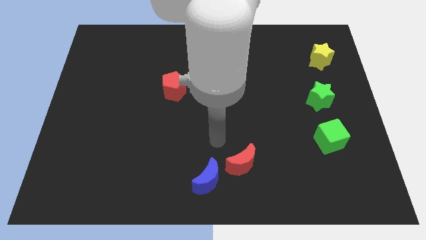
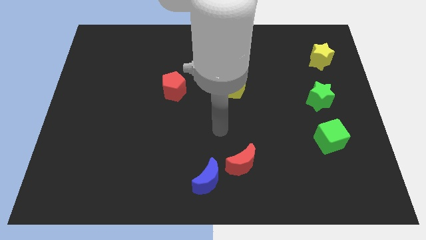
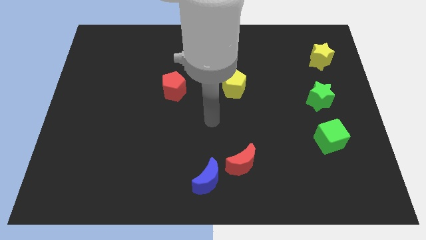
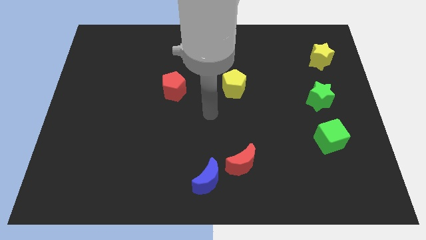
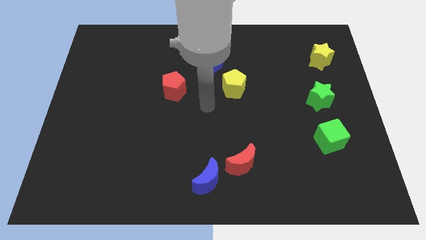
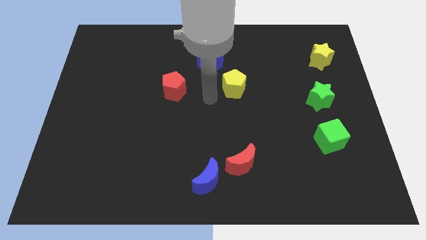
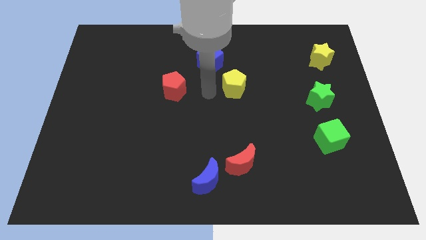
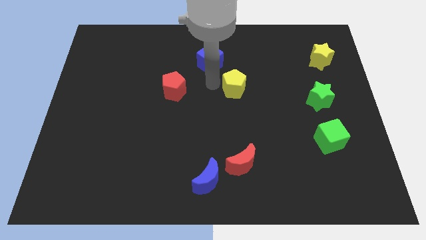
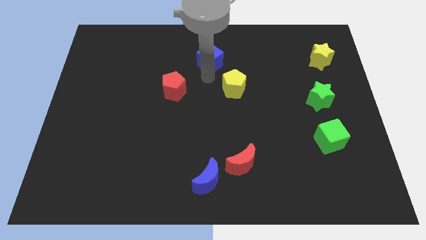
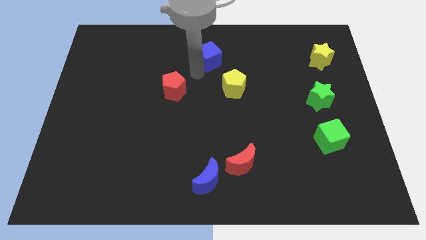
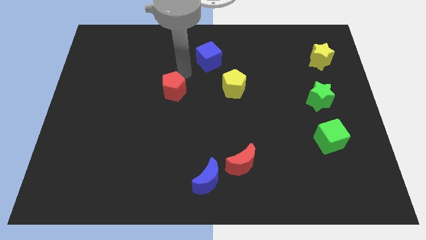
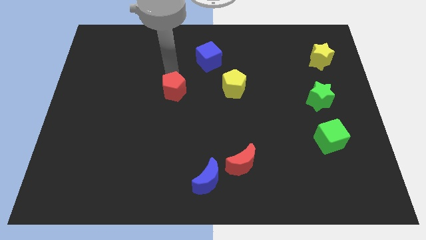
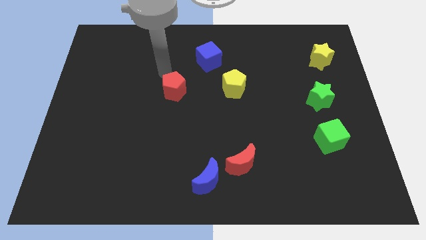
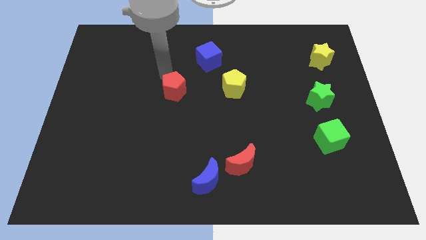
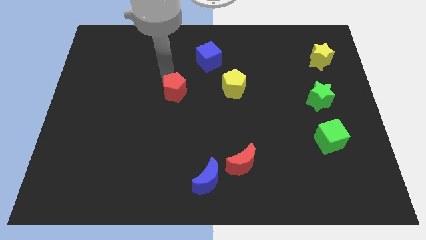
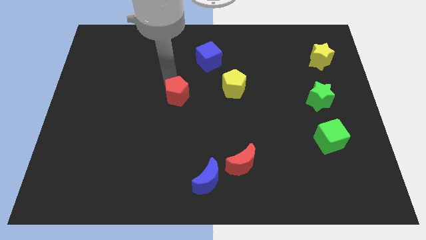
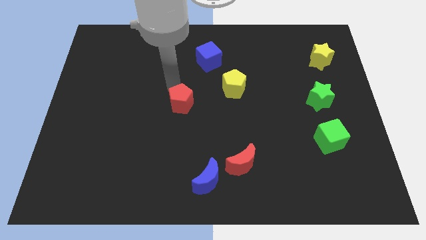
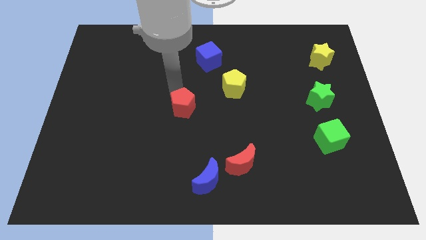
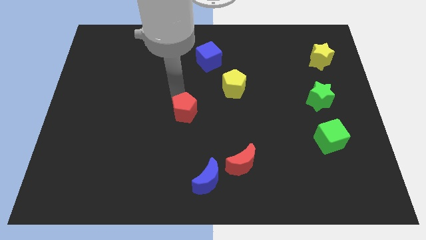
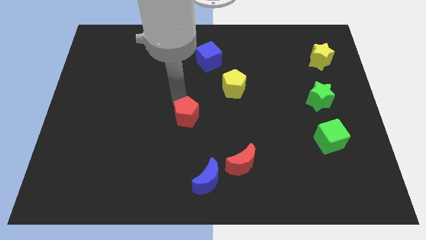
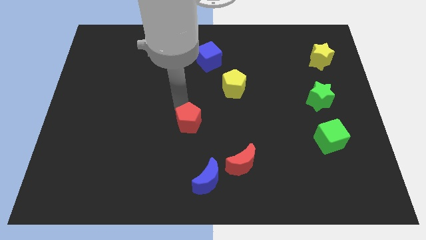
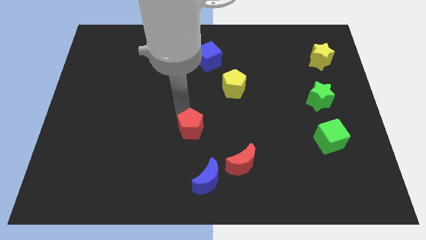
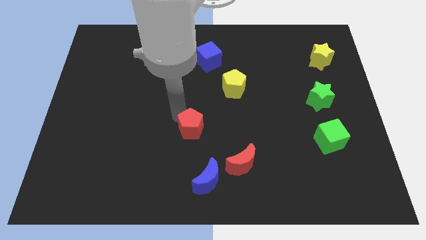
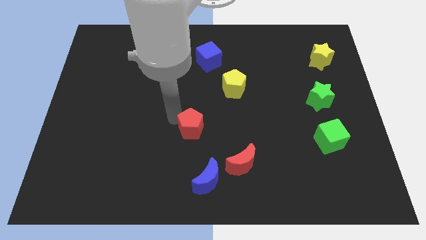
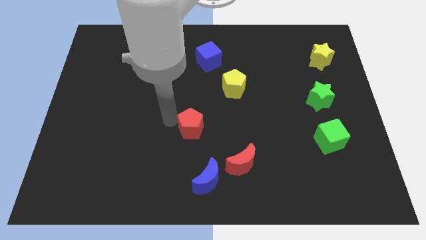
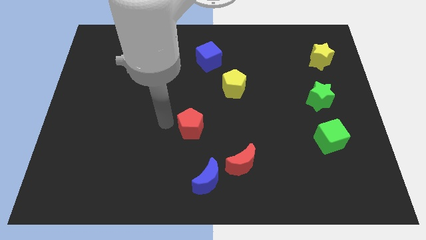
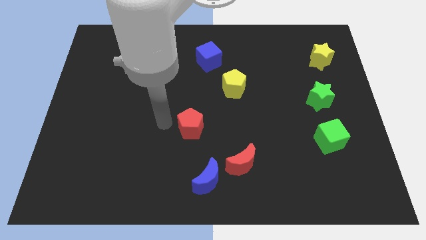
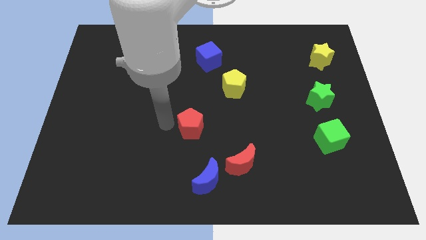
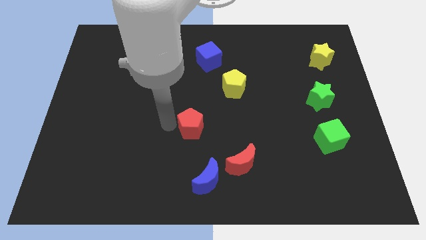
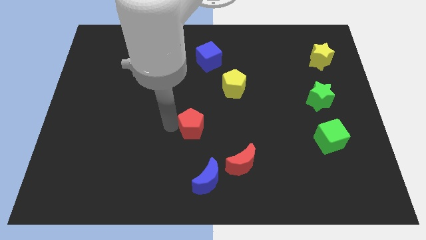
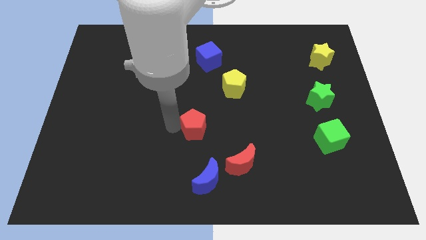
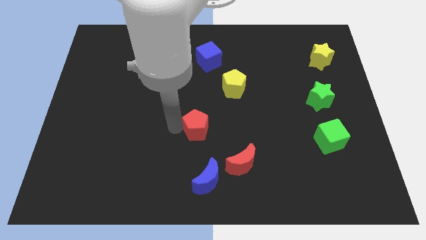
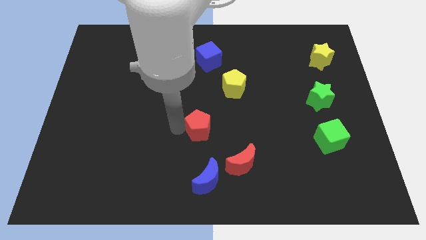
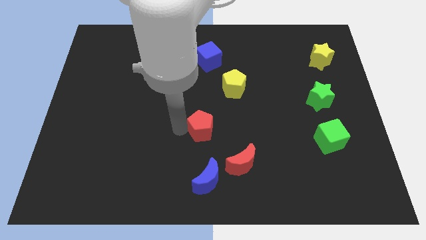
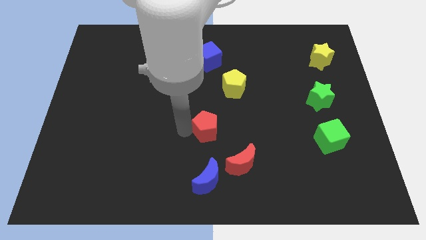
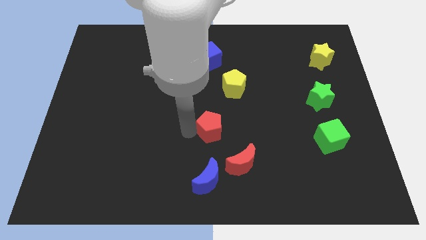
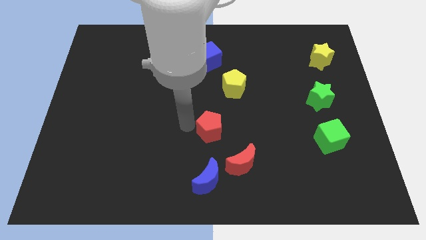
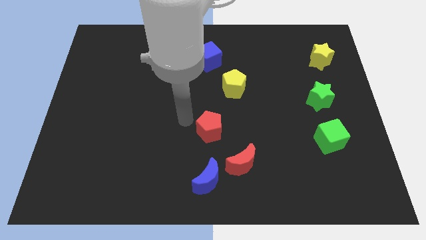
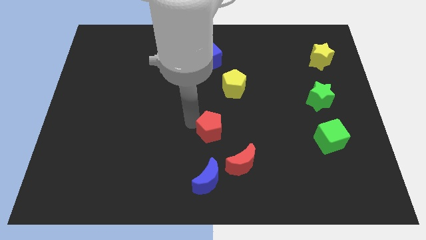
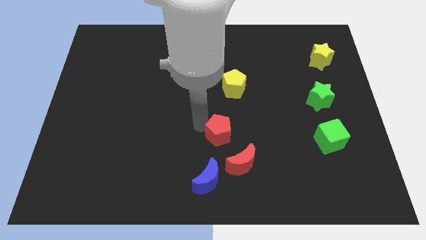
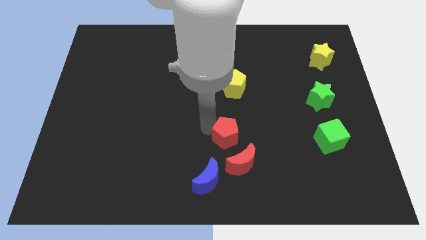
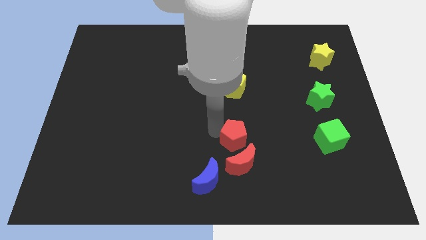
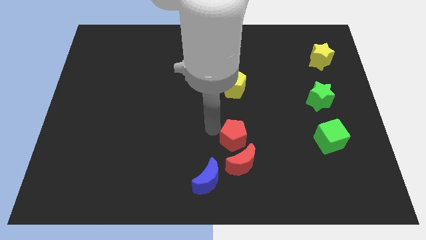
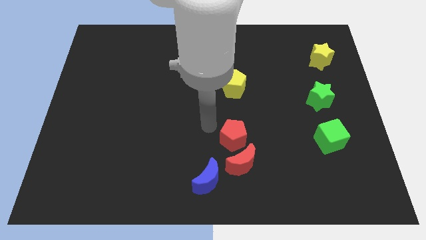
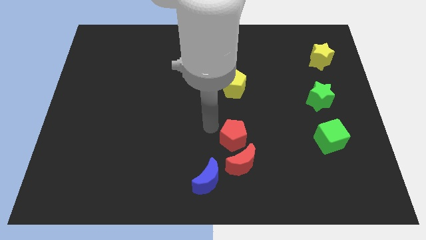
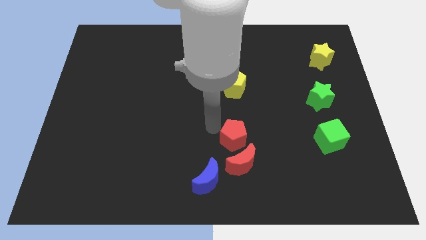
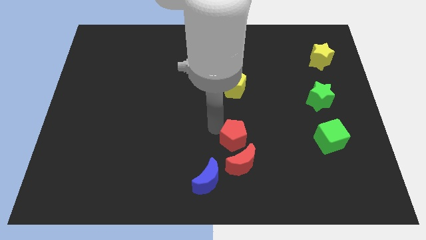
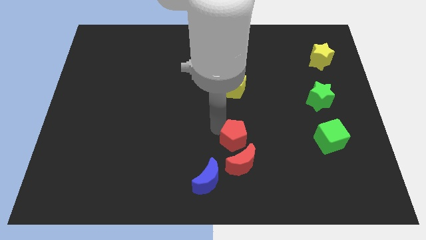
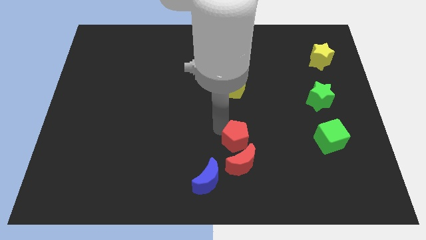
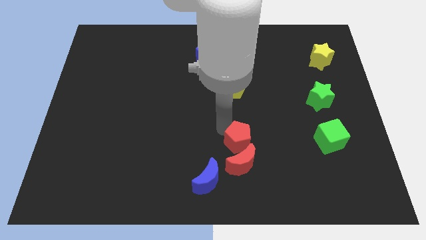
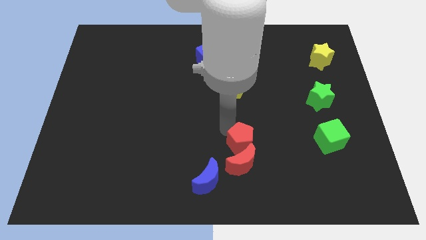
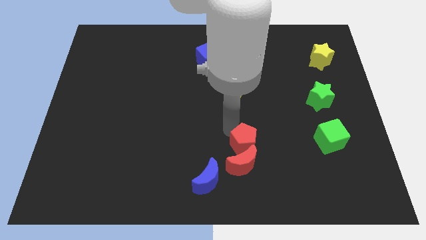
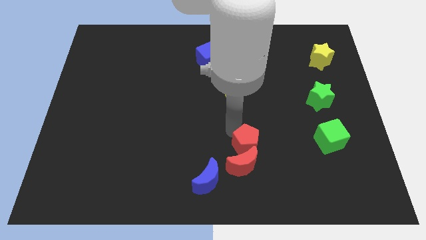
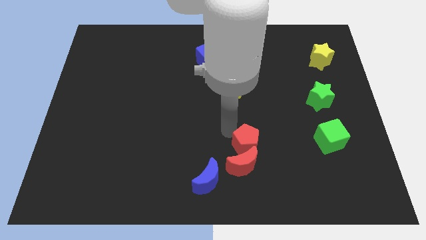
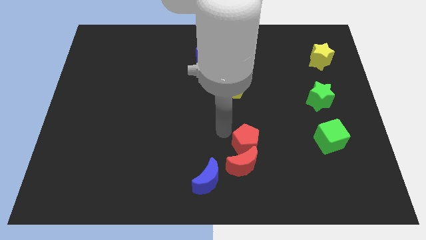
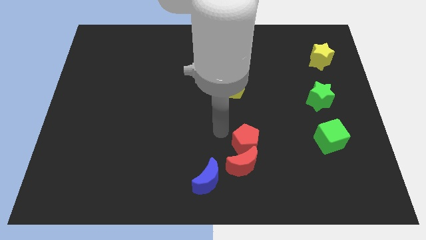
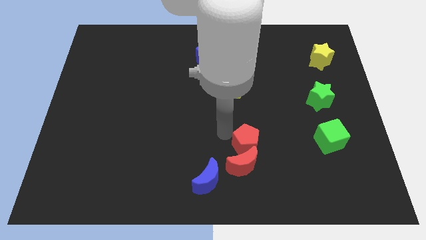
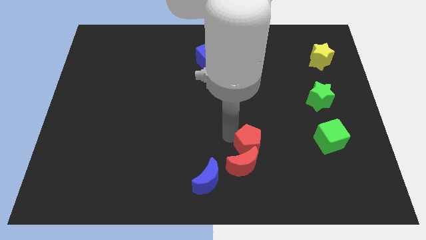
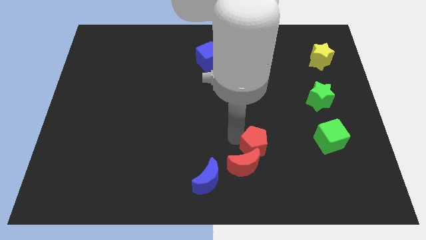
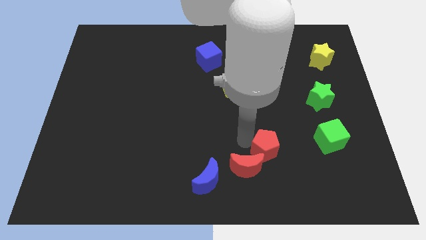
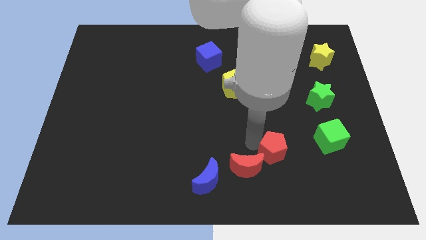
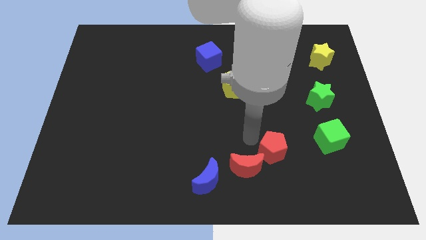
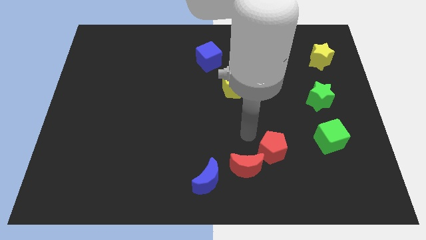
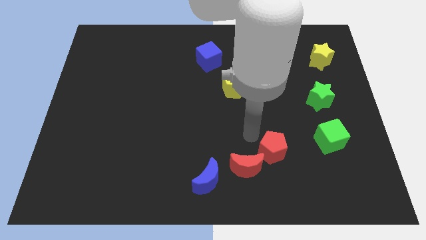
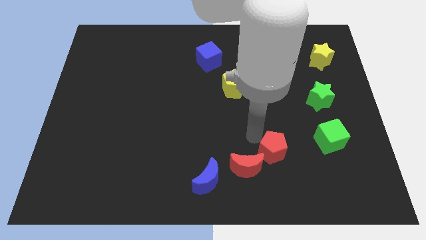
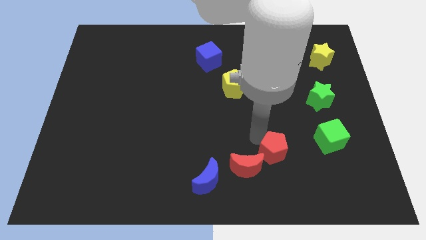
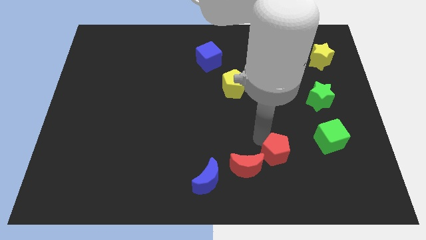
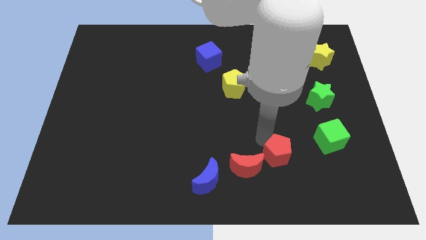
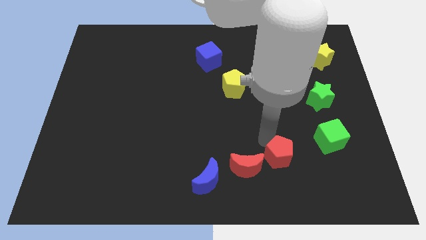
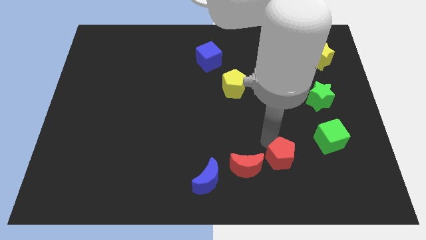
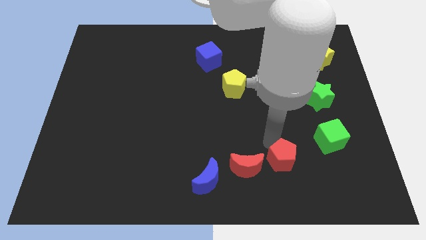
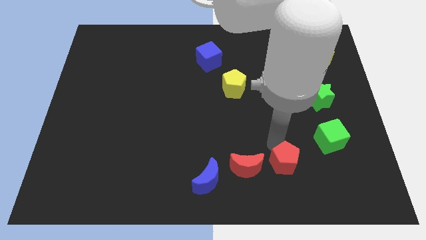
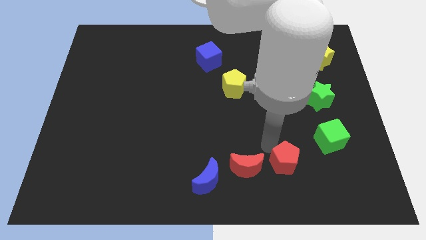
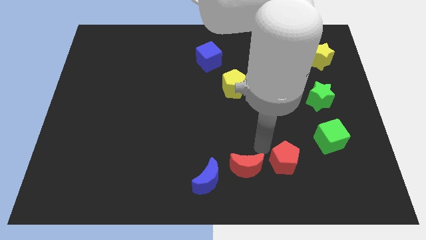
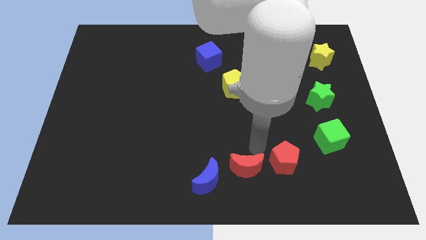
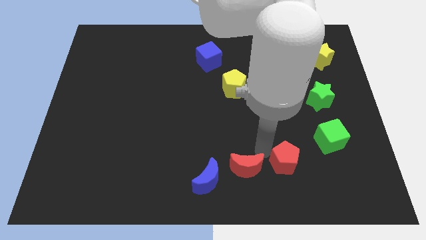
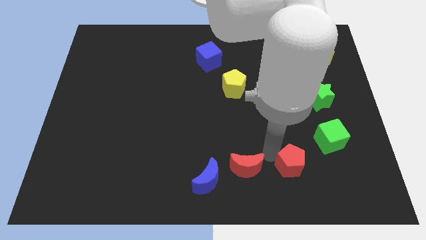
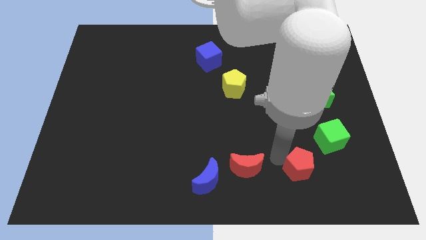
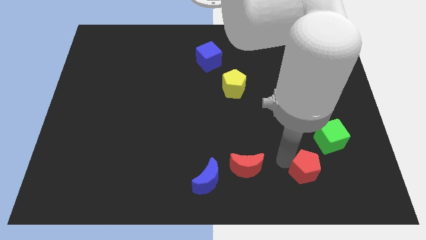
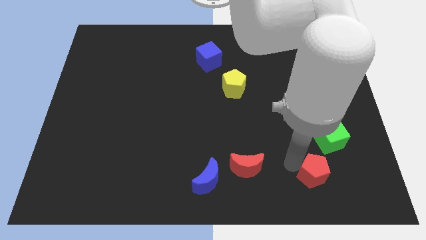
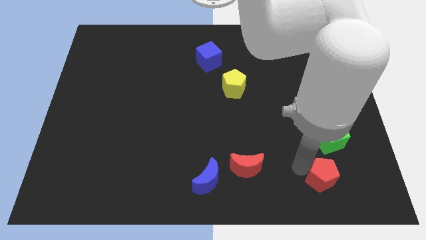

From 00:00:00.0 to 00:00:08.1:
put the red pentagon to the bottom side of the green cube
